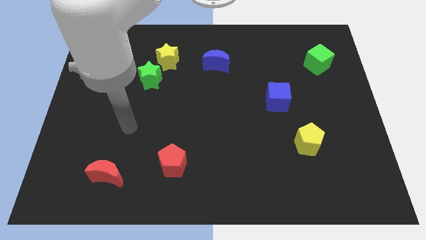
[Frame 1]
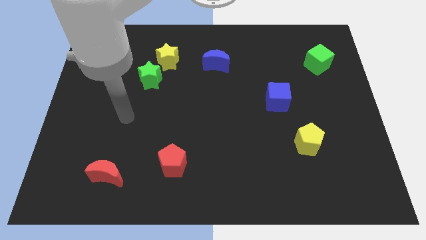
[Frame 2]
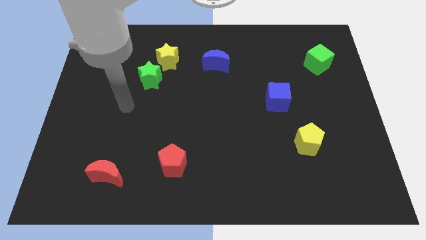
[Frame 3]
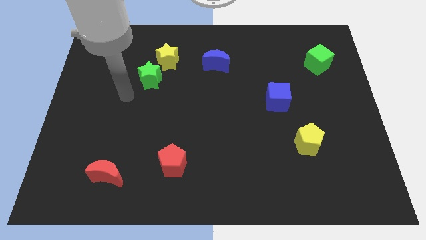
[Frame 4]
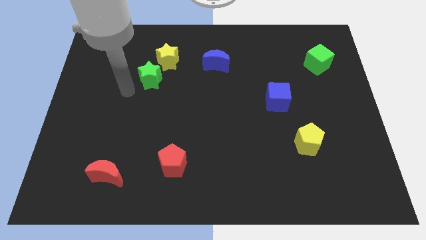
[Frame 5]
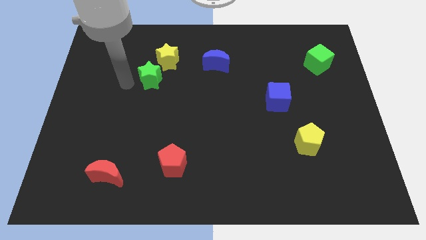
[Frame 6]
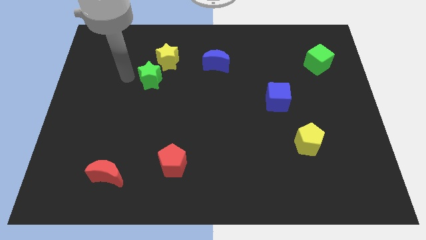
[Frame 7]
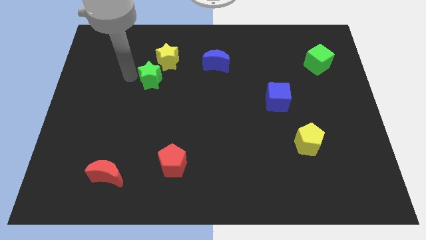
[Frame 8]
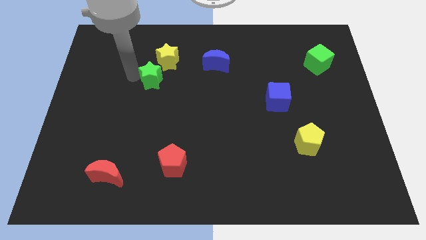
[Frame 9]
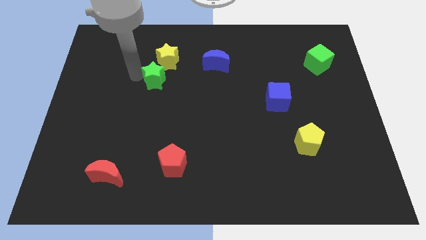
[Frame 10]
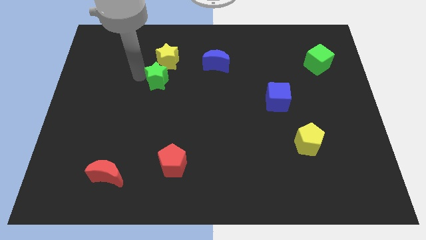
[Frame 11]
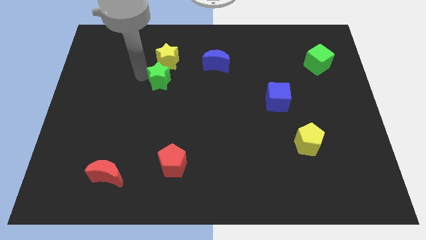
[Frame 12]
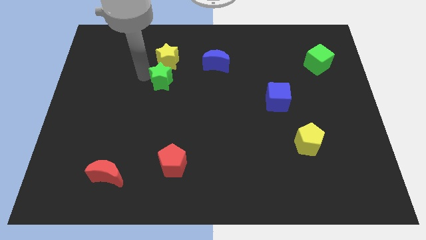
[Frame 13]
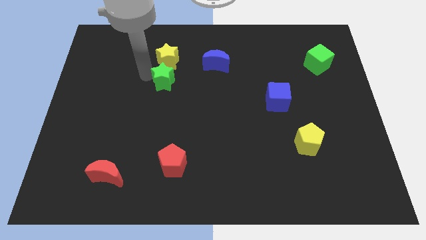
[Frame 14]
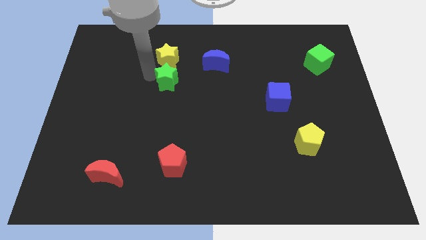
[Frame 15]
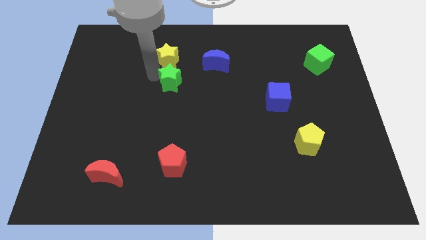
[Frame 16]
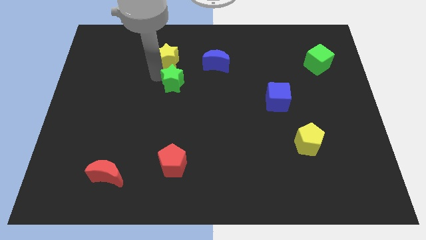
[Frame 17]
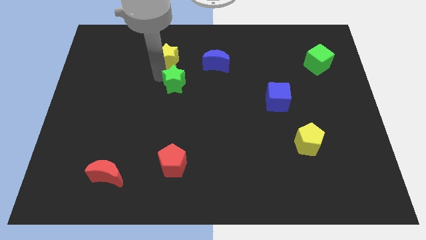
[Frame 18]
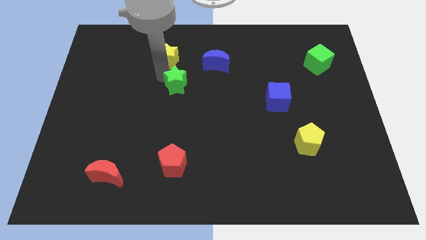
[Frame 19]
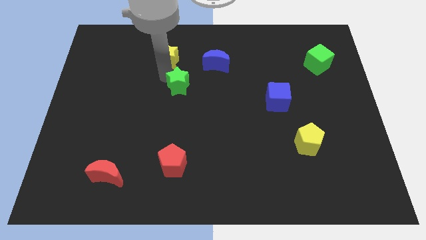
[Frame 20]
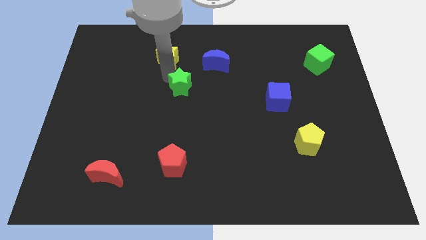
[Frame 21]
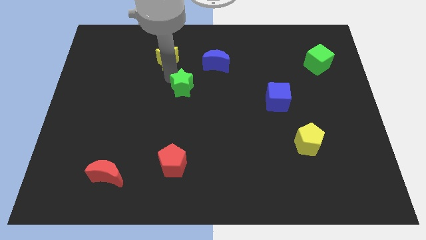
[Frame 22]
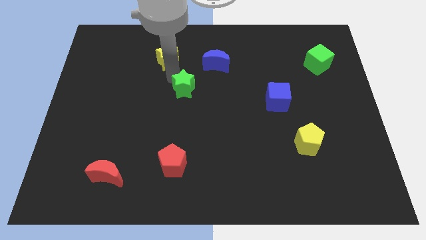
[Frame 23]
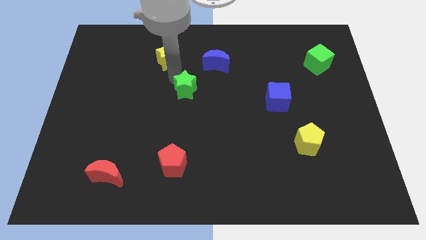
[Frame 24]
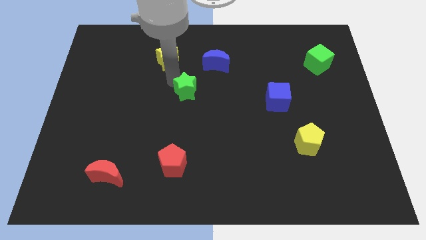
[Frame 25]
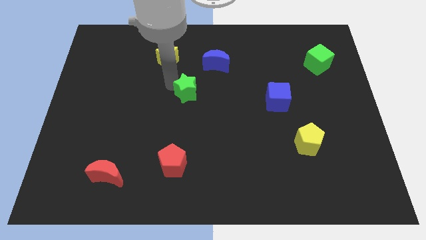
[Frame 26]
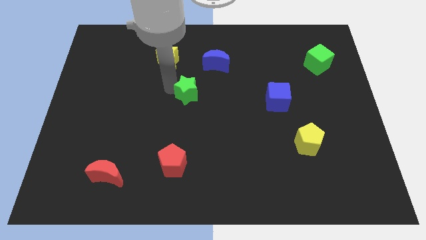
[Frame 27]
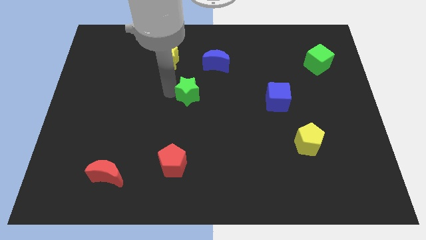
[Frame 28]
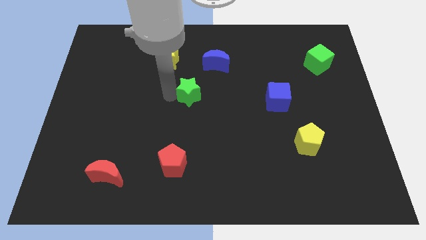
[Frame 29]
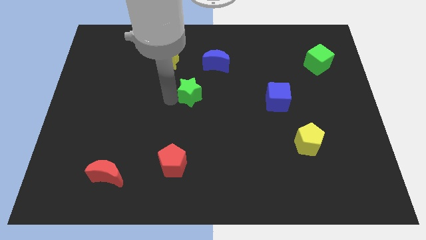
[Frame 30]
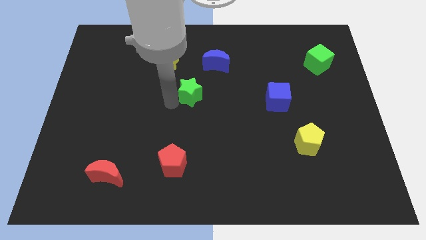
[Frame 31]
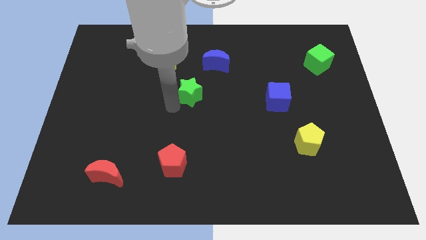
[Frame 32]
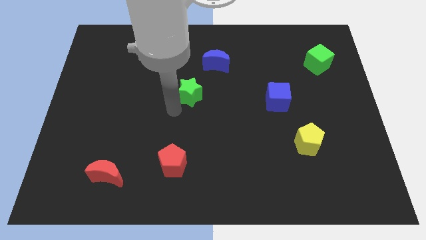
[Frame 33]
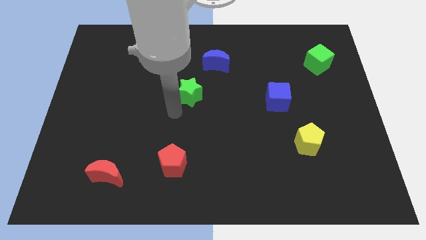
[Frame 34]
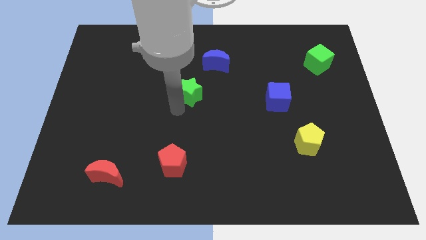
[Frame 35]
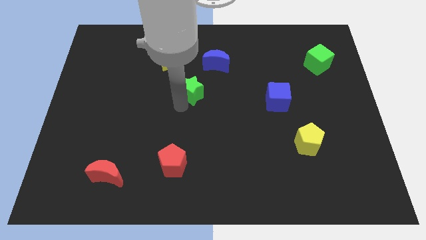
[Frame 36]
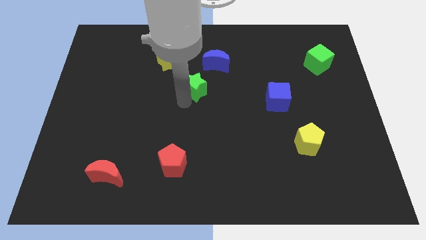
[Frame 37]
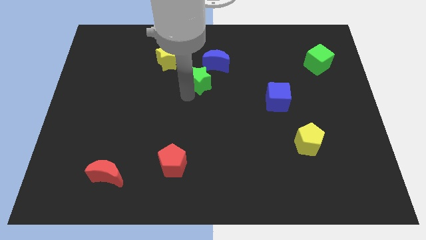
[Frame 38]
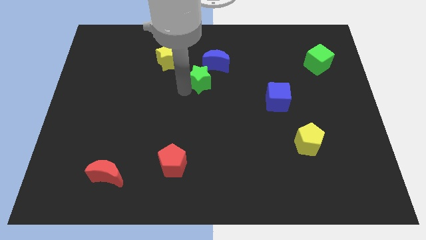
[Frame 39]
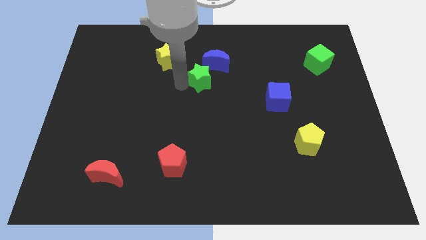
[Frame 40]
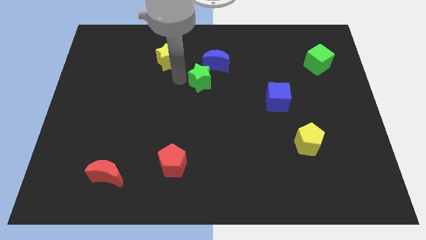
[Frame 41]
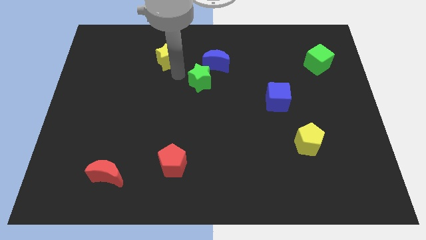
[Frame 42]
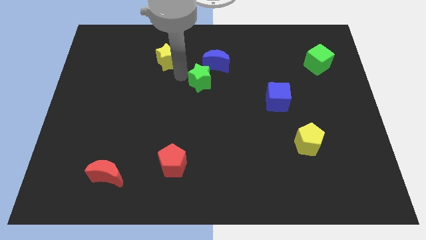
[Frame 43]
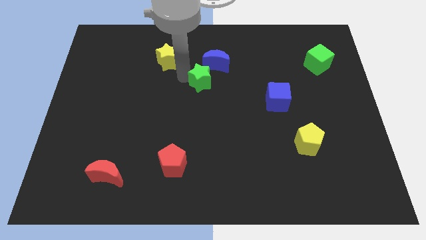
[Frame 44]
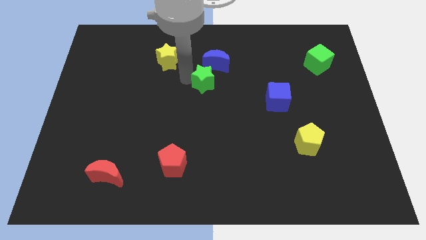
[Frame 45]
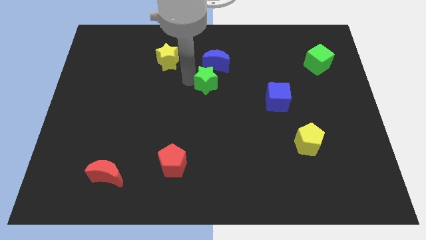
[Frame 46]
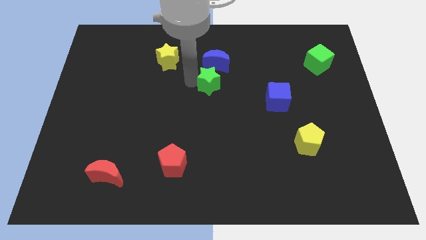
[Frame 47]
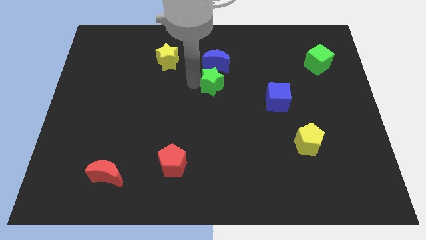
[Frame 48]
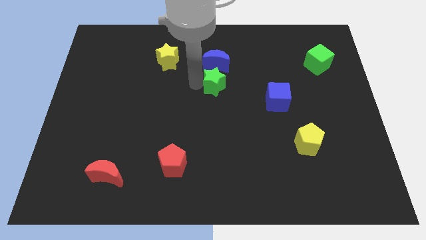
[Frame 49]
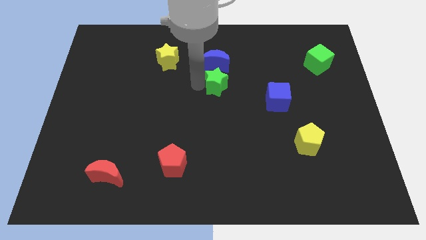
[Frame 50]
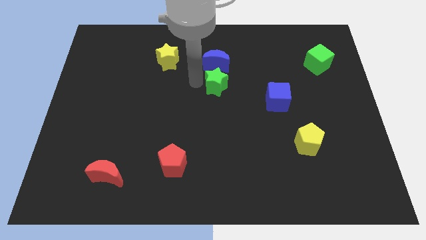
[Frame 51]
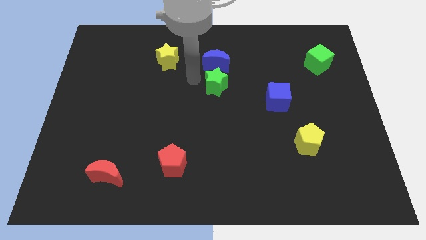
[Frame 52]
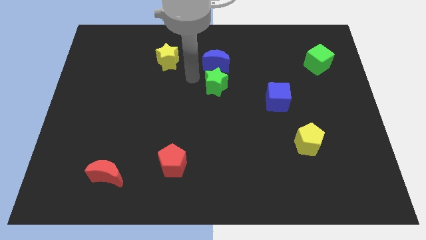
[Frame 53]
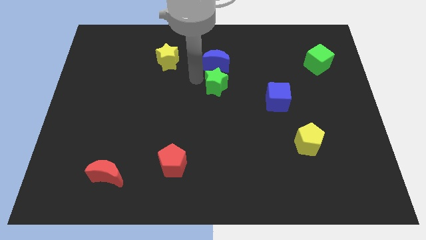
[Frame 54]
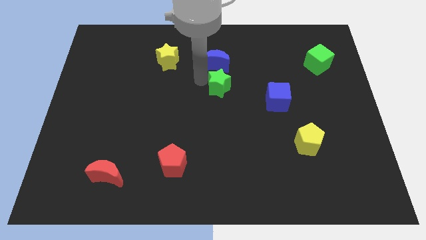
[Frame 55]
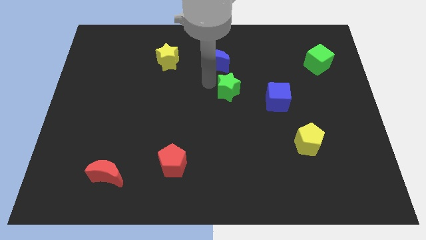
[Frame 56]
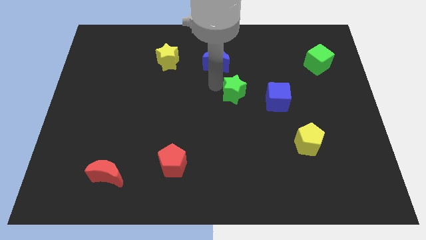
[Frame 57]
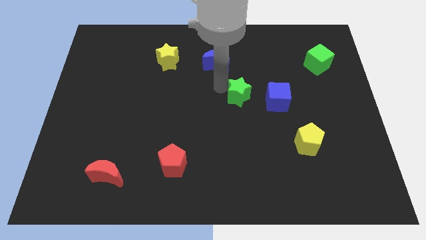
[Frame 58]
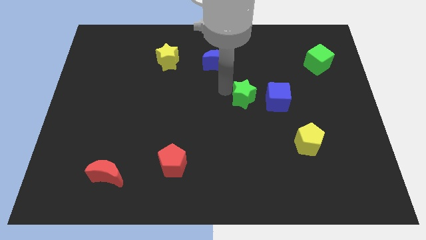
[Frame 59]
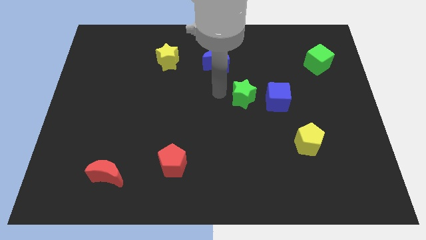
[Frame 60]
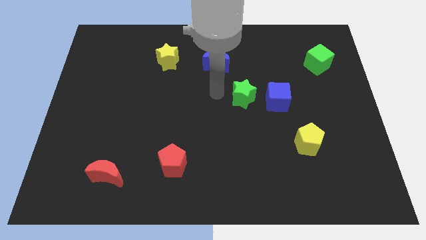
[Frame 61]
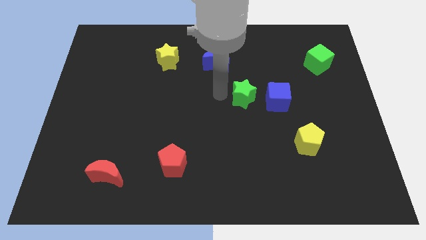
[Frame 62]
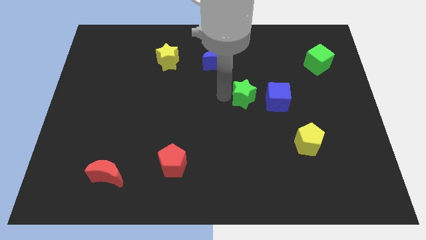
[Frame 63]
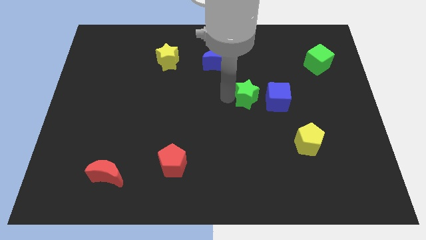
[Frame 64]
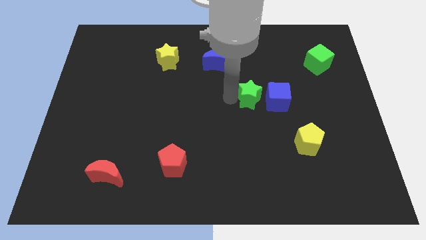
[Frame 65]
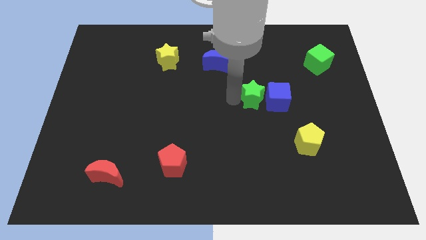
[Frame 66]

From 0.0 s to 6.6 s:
move the green star towards the blue cube
